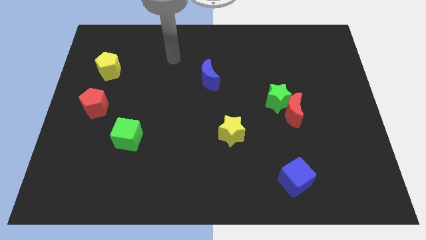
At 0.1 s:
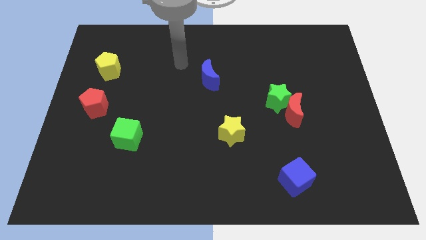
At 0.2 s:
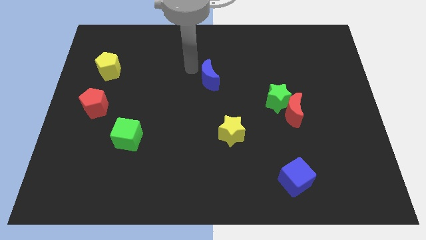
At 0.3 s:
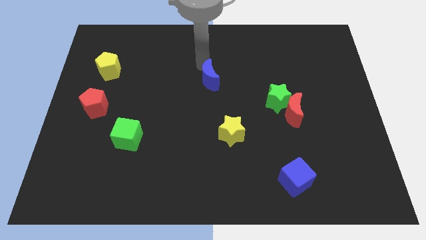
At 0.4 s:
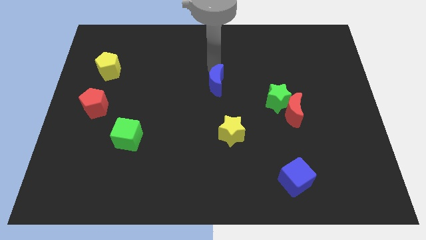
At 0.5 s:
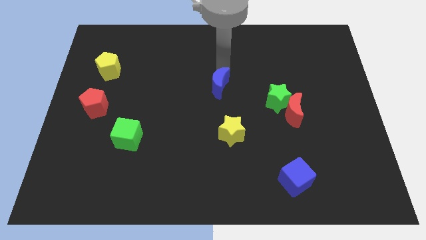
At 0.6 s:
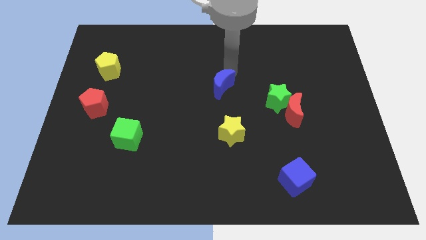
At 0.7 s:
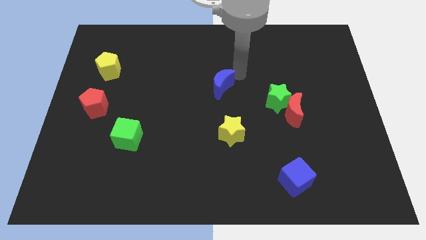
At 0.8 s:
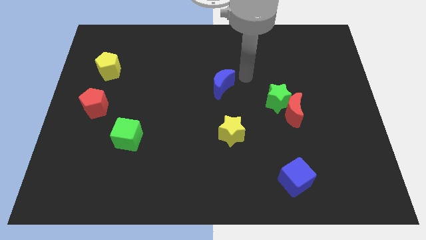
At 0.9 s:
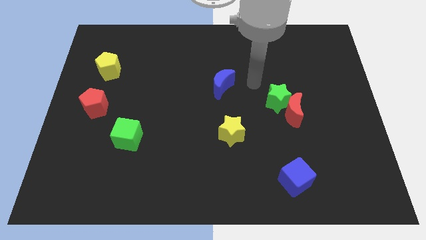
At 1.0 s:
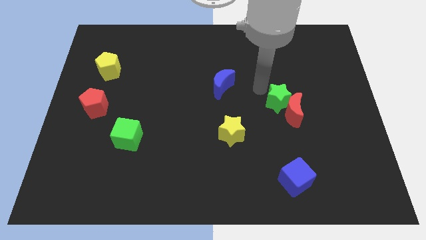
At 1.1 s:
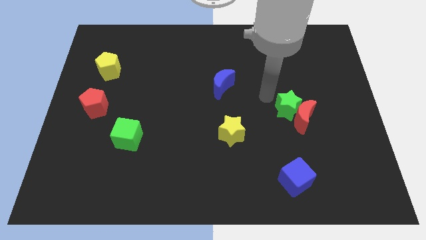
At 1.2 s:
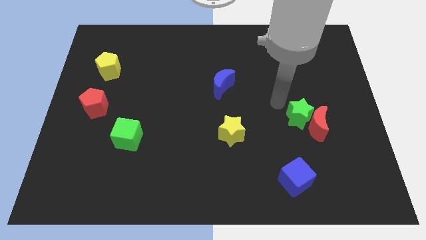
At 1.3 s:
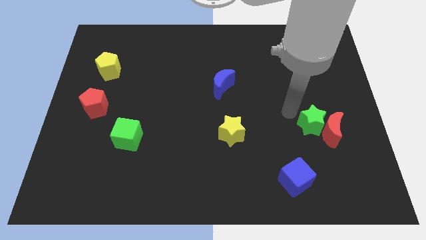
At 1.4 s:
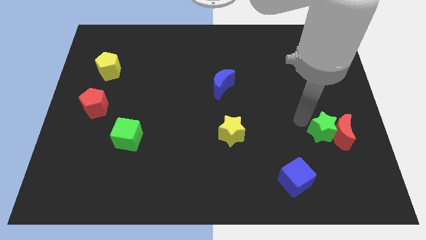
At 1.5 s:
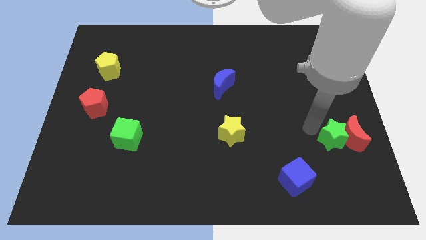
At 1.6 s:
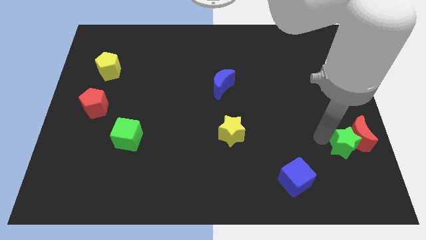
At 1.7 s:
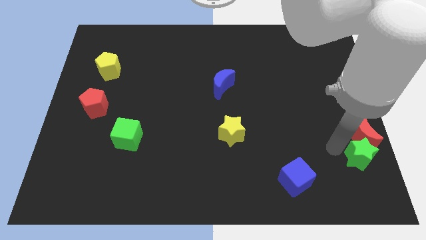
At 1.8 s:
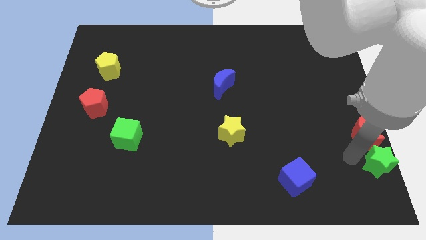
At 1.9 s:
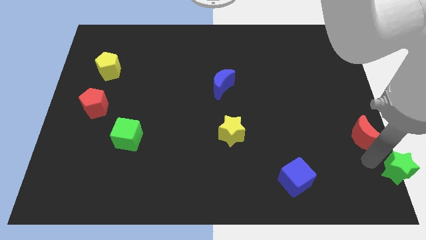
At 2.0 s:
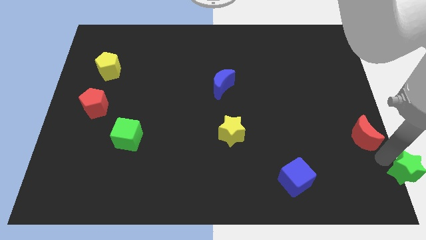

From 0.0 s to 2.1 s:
separate the red moon from the green star

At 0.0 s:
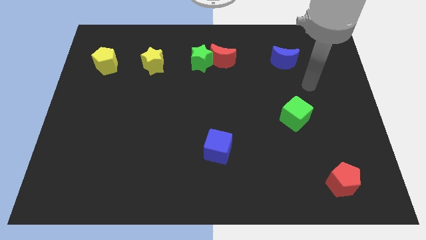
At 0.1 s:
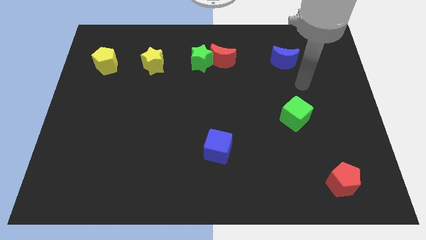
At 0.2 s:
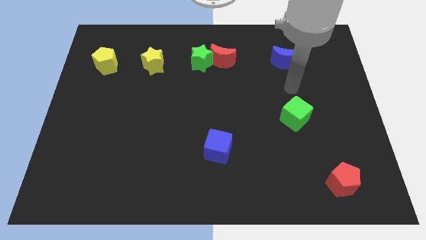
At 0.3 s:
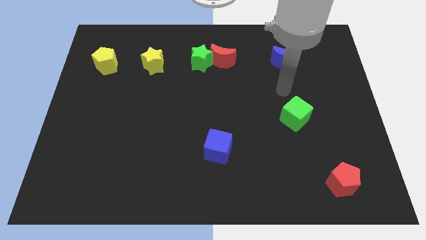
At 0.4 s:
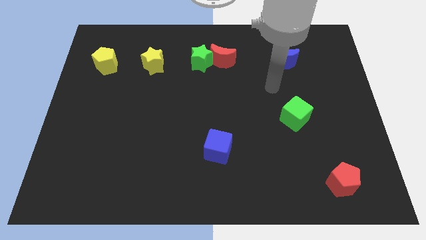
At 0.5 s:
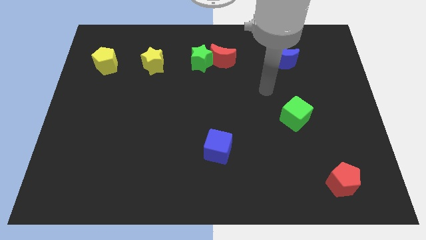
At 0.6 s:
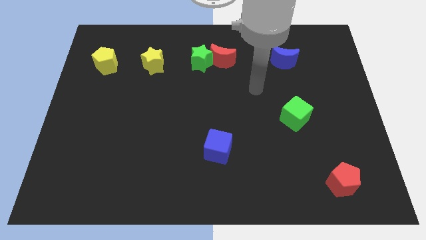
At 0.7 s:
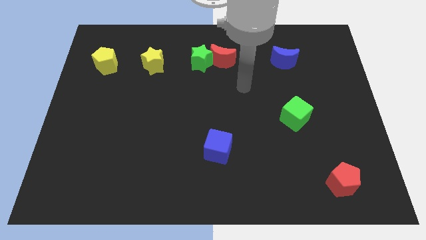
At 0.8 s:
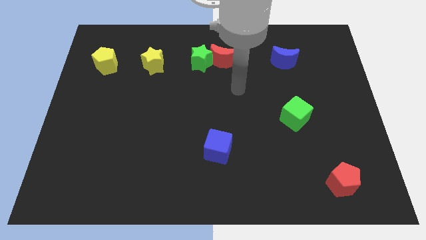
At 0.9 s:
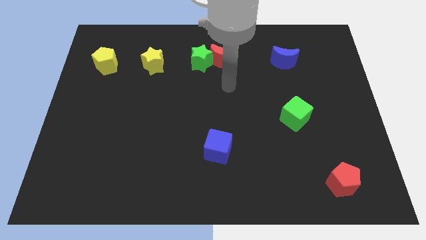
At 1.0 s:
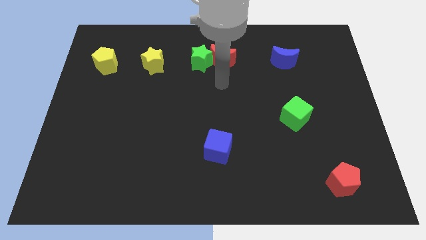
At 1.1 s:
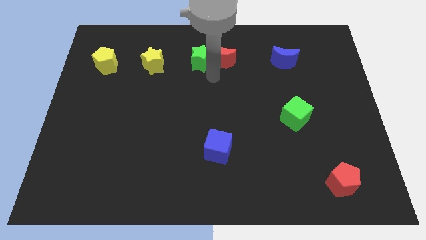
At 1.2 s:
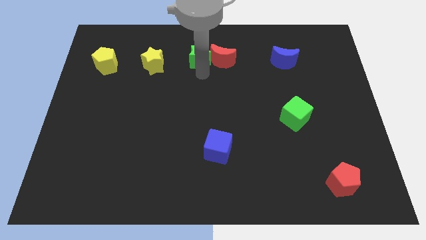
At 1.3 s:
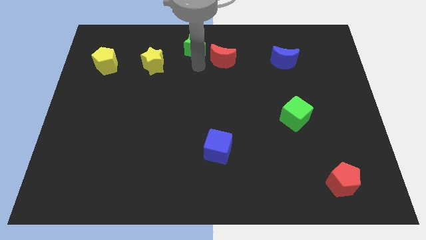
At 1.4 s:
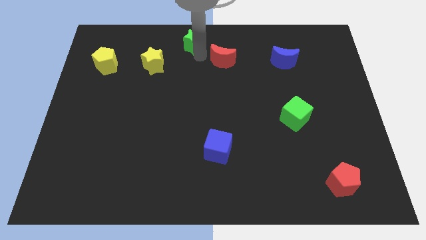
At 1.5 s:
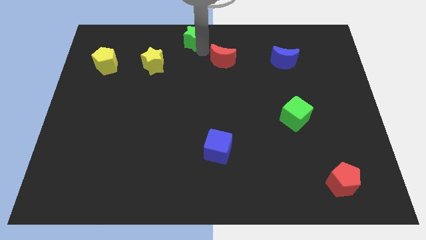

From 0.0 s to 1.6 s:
pull the red moon apart from the green star

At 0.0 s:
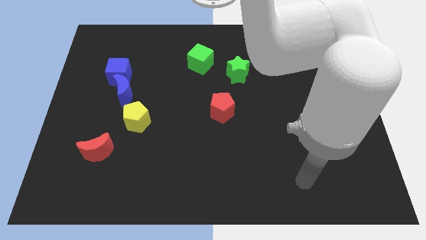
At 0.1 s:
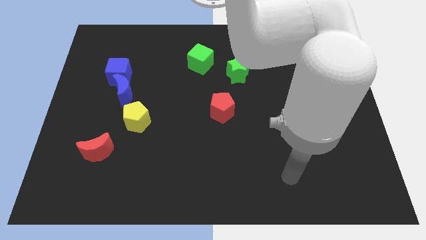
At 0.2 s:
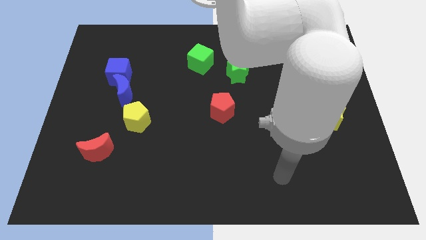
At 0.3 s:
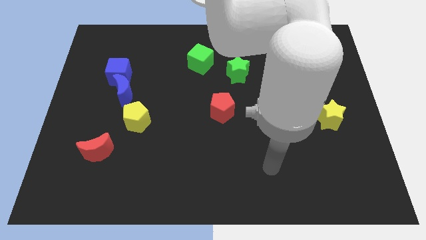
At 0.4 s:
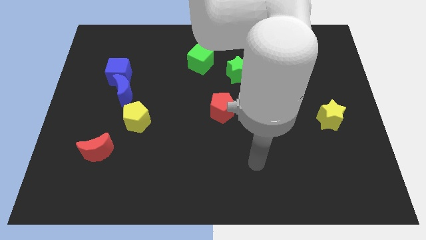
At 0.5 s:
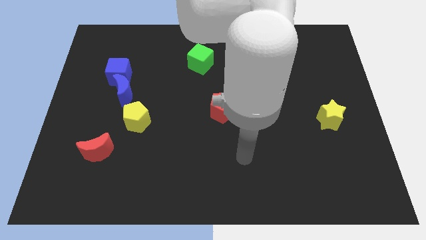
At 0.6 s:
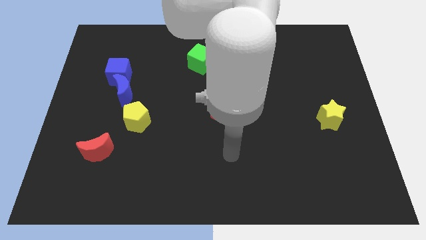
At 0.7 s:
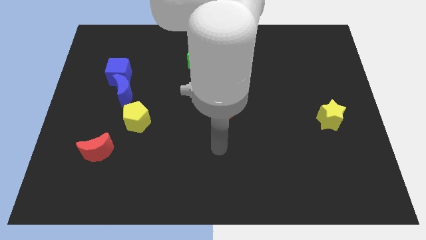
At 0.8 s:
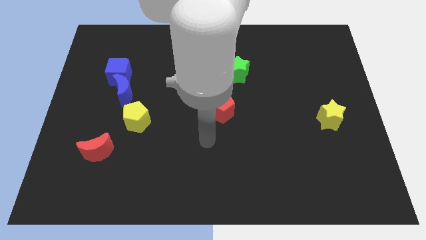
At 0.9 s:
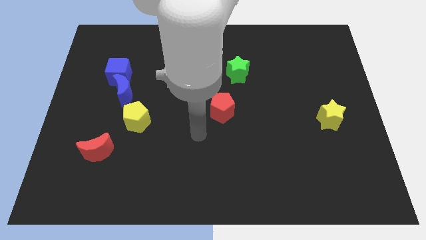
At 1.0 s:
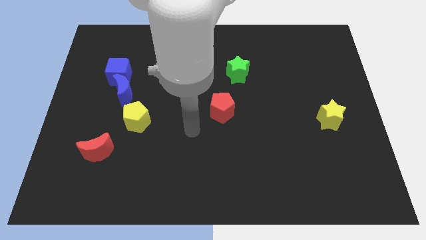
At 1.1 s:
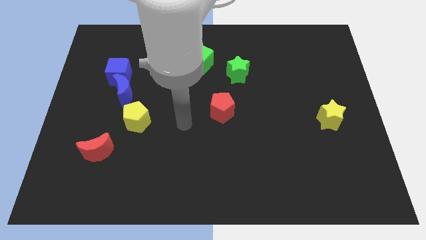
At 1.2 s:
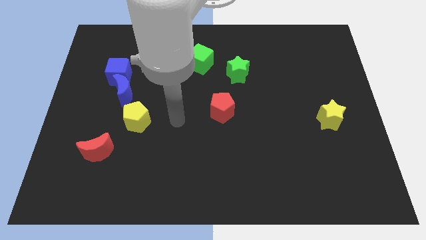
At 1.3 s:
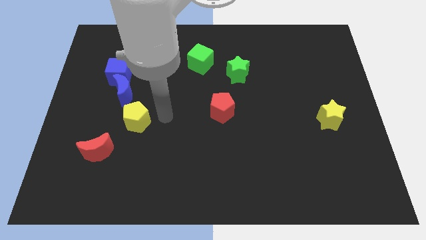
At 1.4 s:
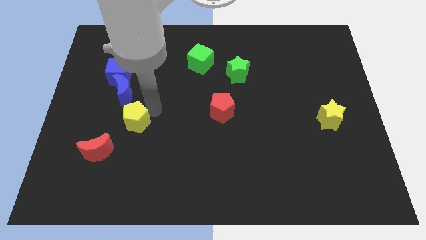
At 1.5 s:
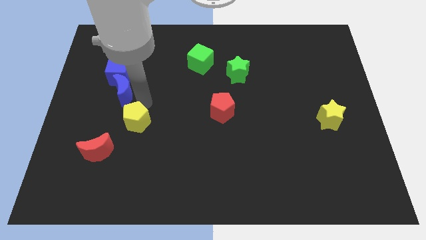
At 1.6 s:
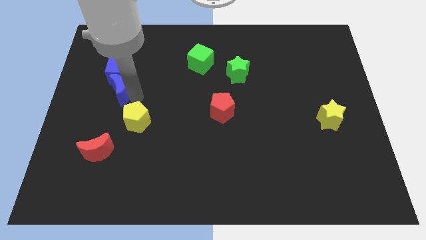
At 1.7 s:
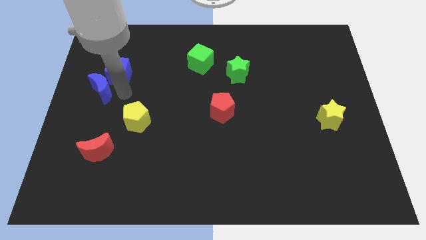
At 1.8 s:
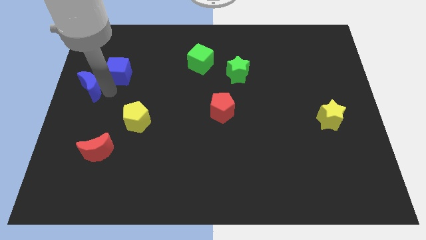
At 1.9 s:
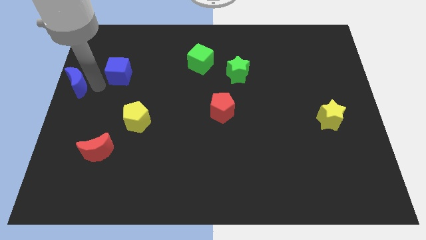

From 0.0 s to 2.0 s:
pull the blue cube apart from the blue moon

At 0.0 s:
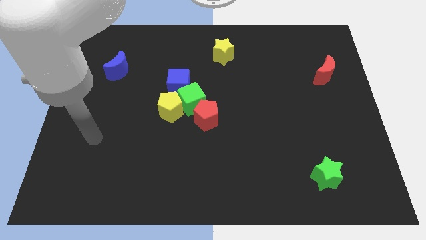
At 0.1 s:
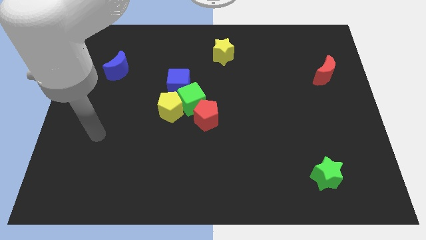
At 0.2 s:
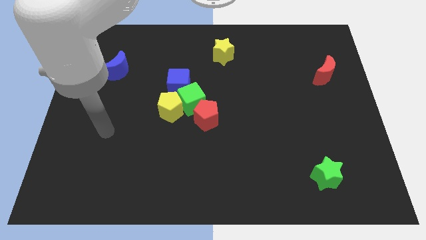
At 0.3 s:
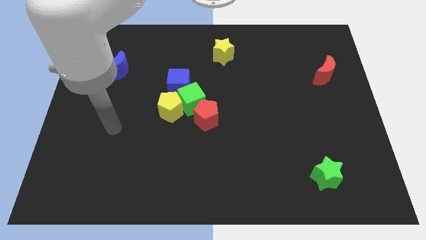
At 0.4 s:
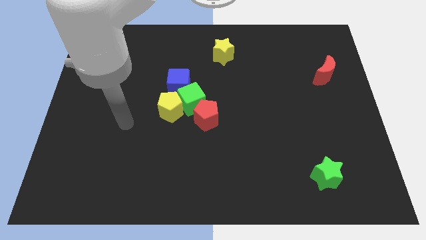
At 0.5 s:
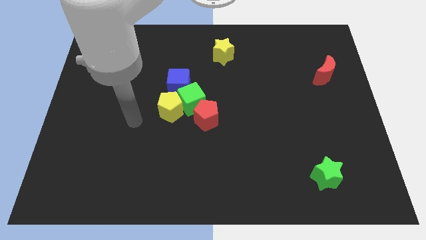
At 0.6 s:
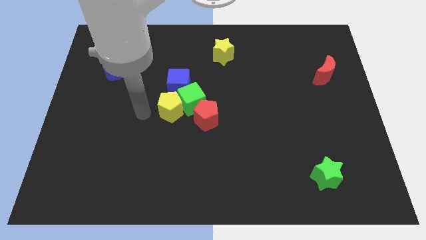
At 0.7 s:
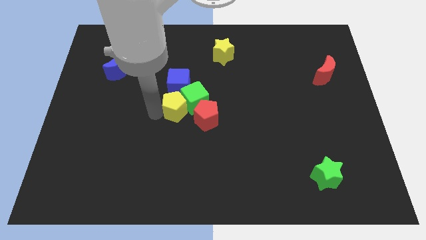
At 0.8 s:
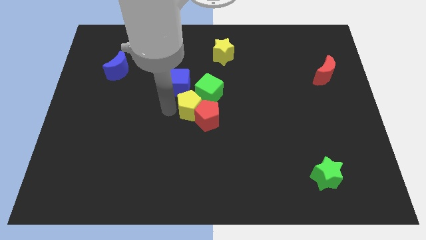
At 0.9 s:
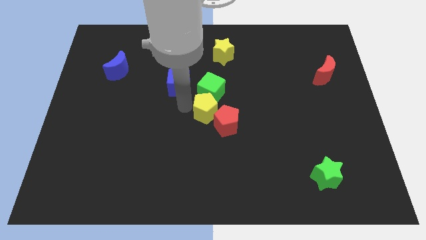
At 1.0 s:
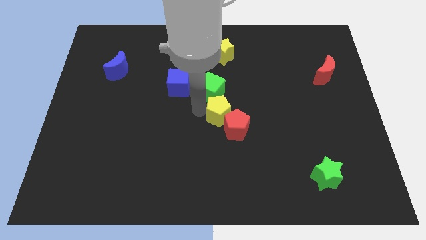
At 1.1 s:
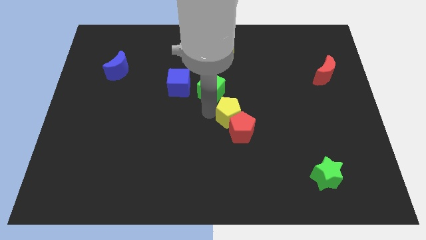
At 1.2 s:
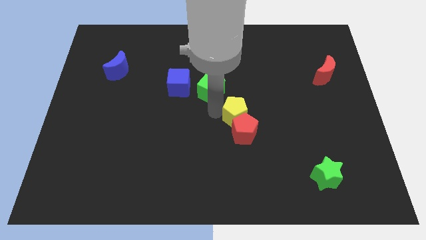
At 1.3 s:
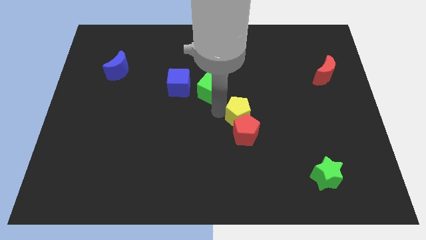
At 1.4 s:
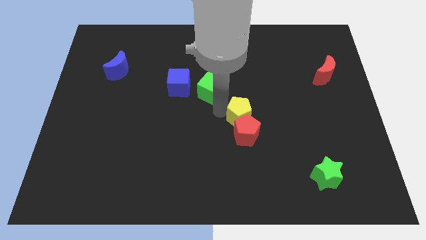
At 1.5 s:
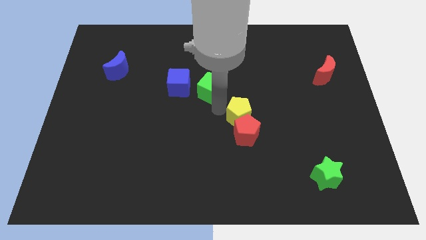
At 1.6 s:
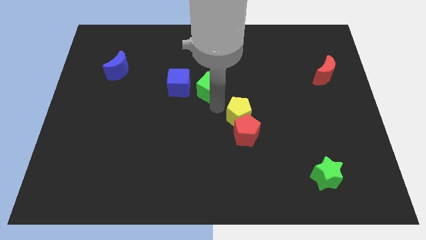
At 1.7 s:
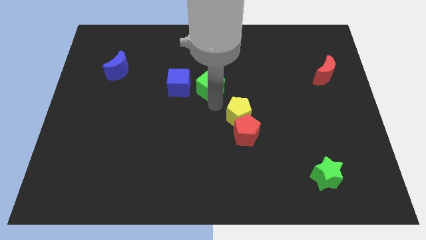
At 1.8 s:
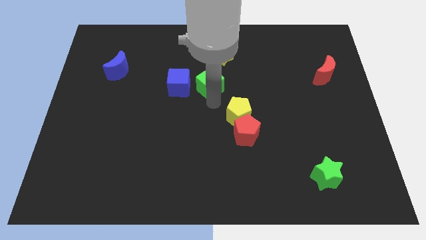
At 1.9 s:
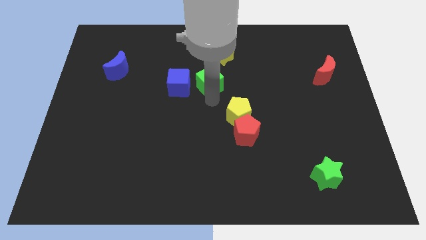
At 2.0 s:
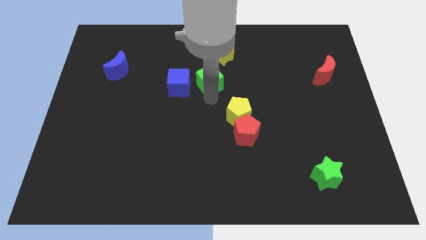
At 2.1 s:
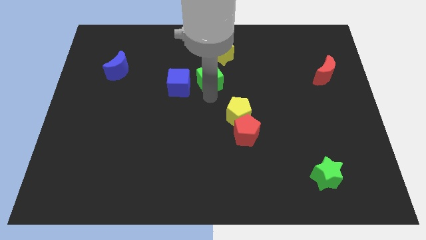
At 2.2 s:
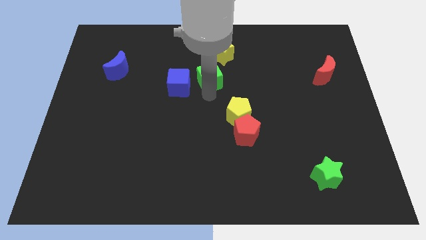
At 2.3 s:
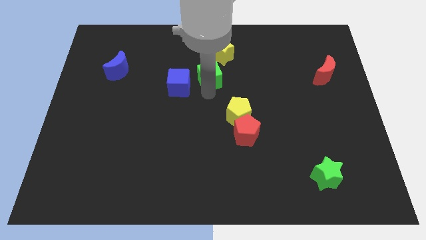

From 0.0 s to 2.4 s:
pull the green cube apart from the yellow pentagon, red pentagon, and blue cube

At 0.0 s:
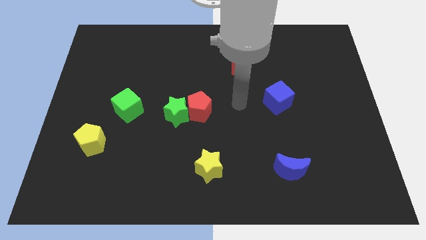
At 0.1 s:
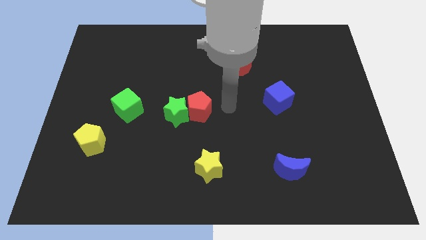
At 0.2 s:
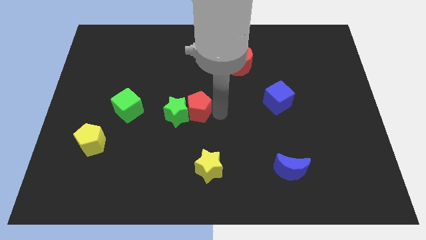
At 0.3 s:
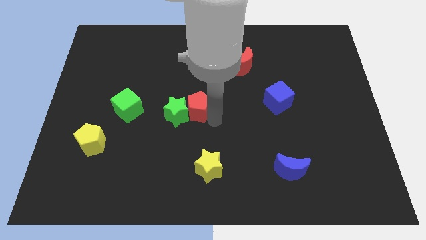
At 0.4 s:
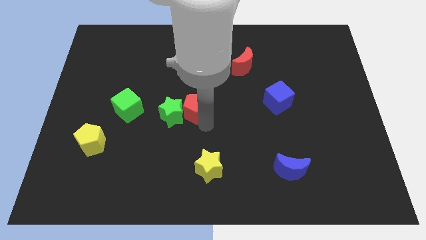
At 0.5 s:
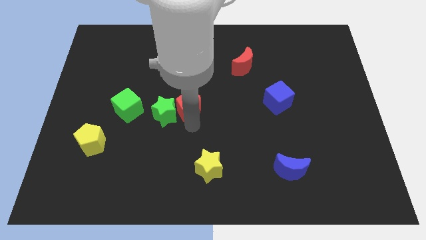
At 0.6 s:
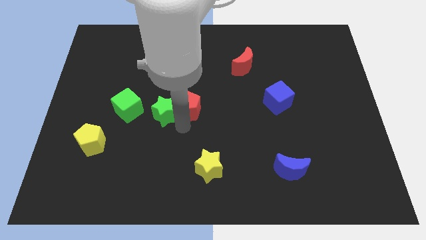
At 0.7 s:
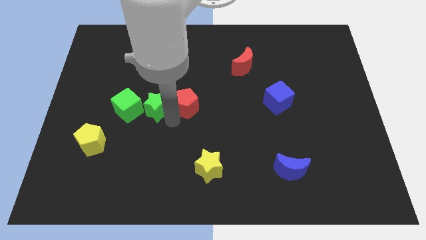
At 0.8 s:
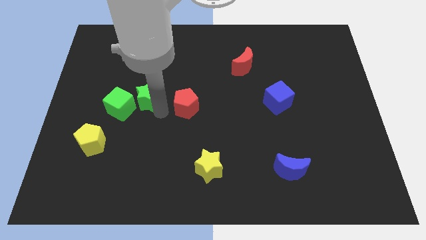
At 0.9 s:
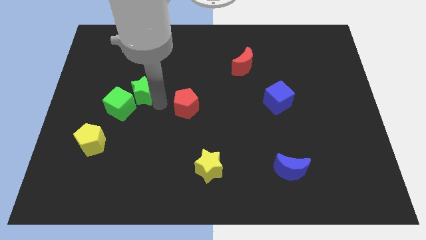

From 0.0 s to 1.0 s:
move the red pentagon away from the green star

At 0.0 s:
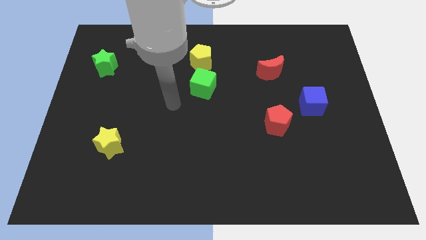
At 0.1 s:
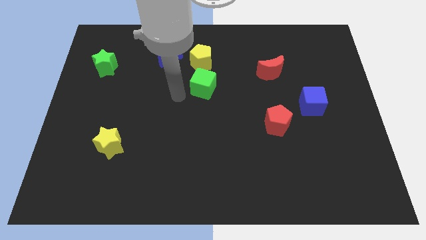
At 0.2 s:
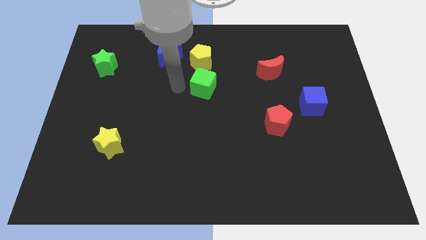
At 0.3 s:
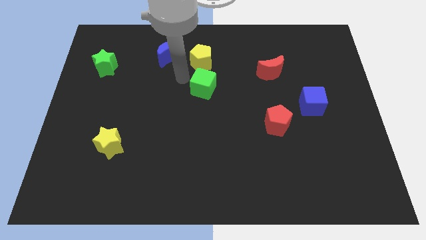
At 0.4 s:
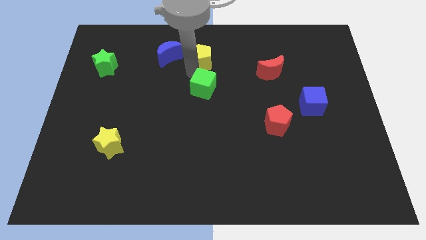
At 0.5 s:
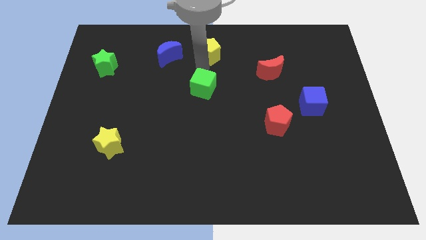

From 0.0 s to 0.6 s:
separate the green cube from the yellow pentagon
